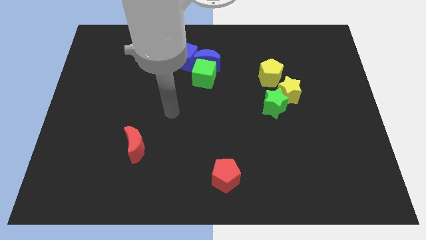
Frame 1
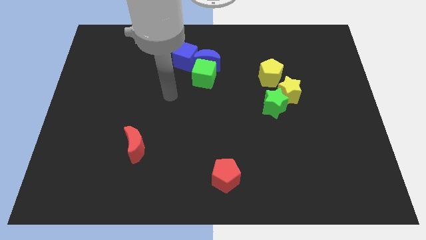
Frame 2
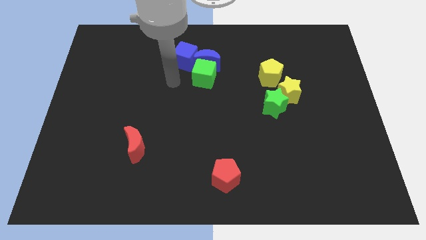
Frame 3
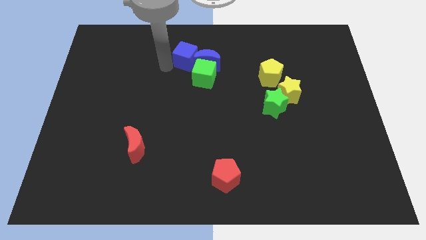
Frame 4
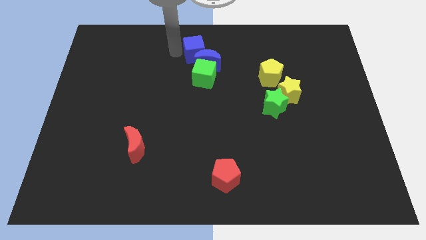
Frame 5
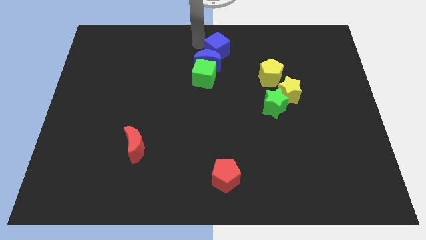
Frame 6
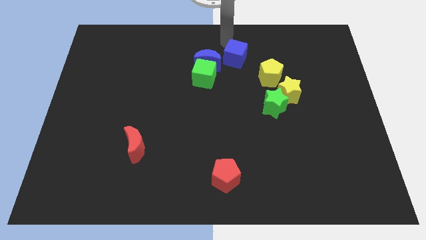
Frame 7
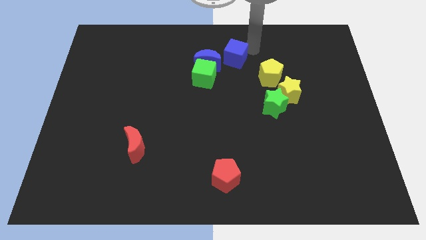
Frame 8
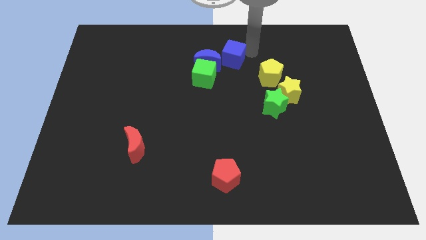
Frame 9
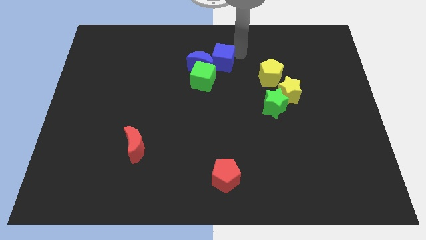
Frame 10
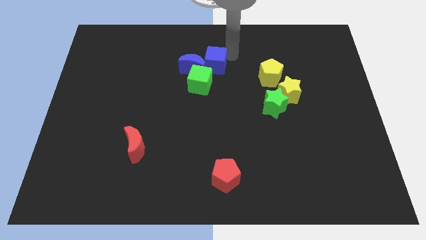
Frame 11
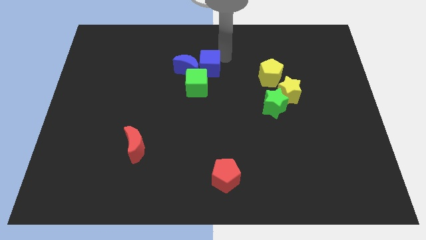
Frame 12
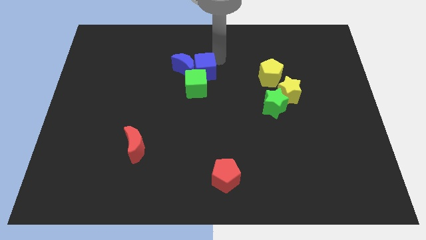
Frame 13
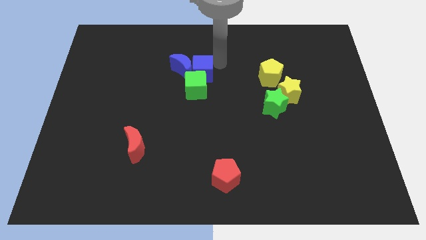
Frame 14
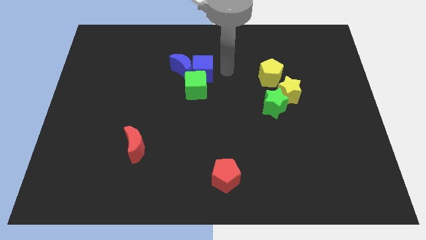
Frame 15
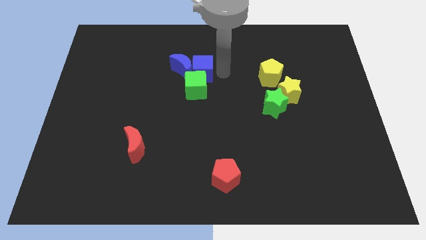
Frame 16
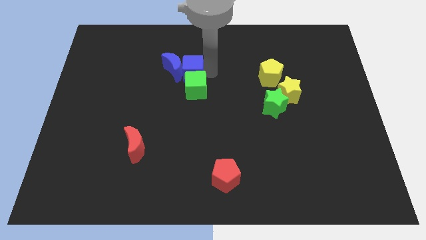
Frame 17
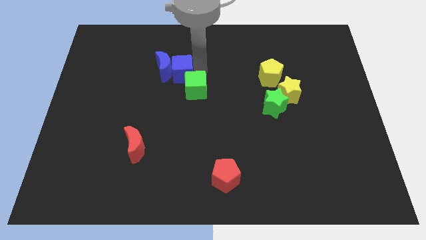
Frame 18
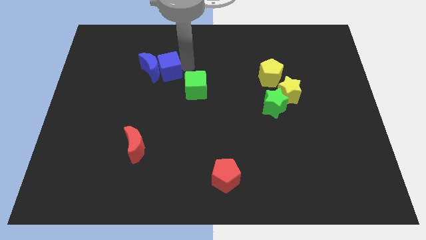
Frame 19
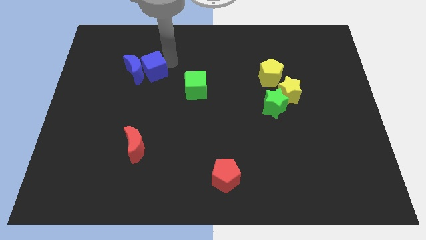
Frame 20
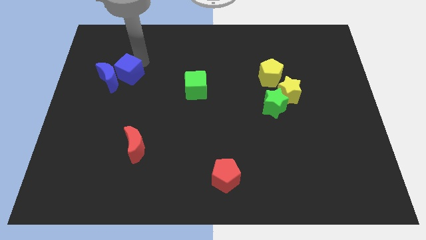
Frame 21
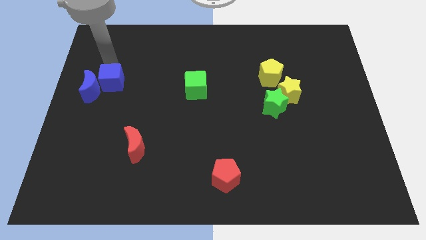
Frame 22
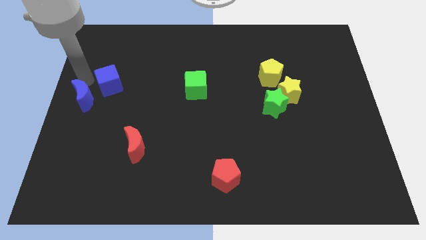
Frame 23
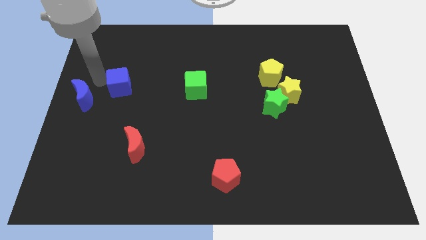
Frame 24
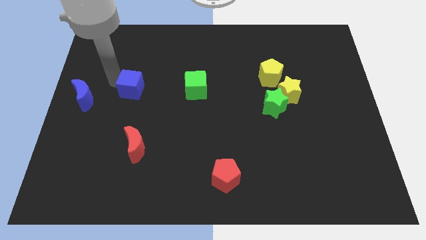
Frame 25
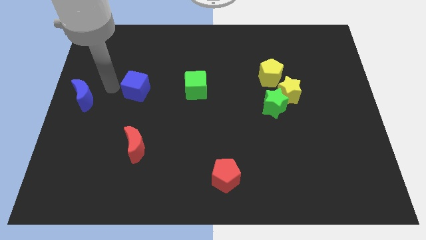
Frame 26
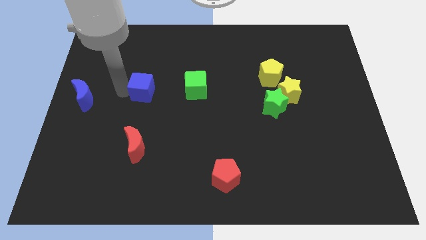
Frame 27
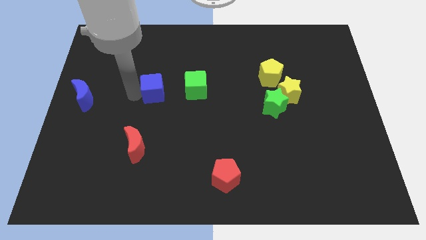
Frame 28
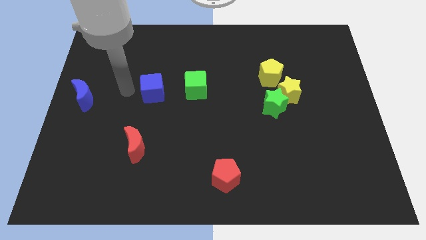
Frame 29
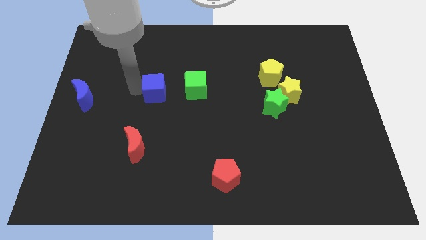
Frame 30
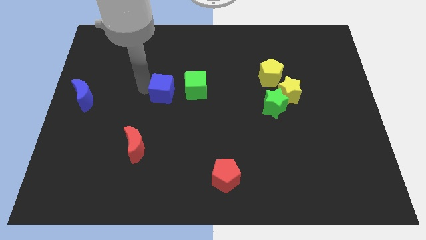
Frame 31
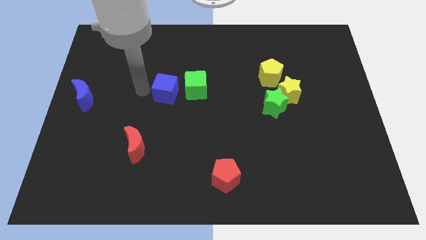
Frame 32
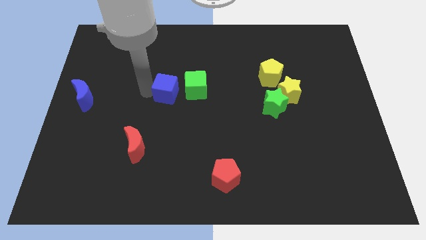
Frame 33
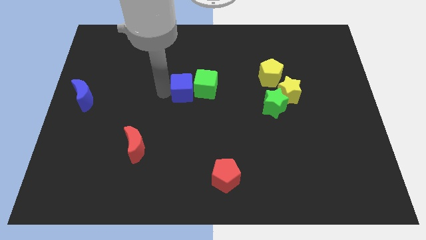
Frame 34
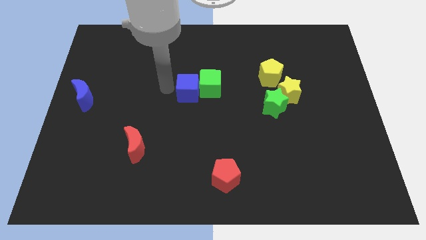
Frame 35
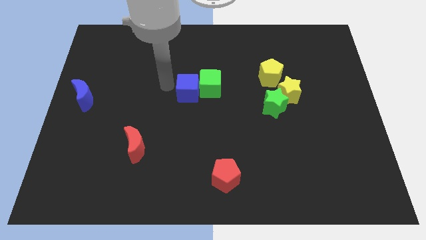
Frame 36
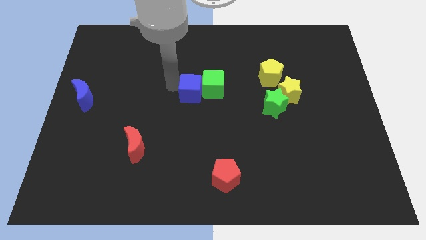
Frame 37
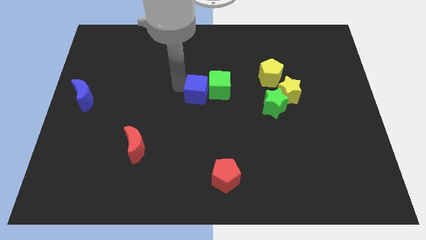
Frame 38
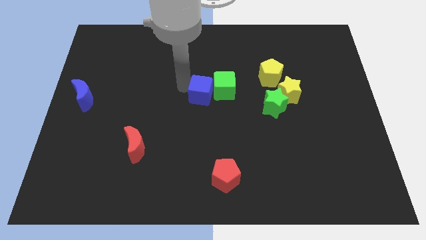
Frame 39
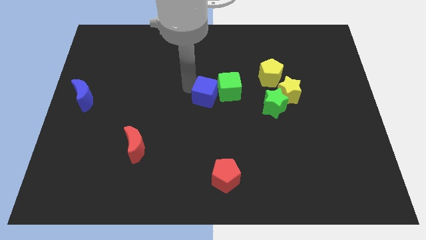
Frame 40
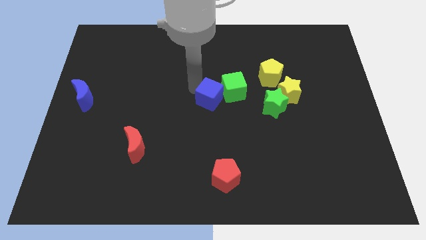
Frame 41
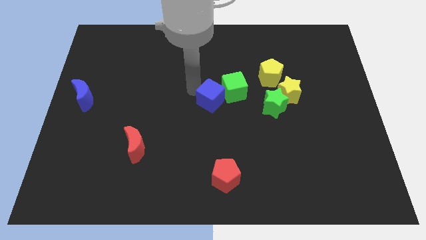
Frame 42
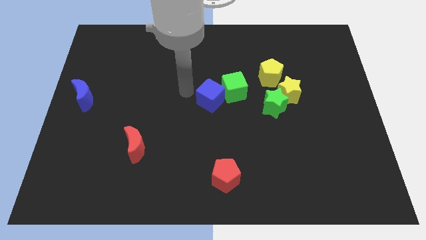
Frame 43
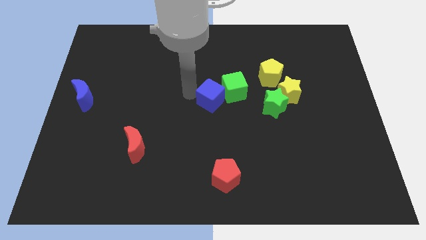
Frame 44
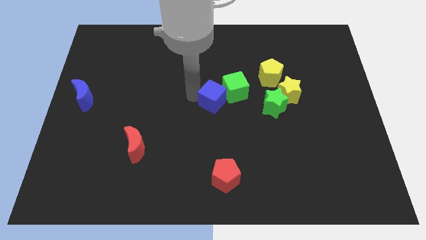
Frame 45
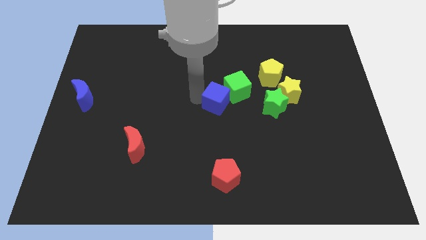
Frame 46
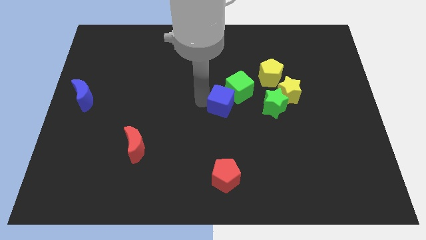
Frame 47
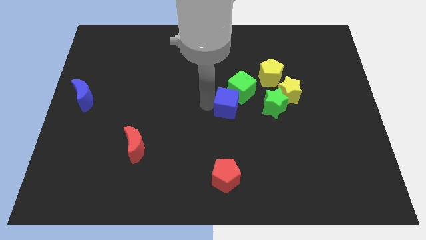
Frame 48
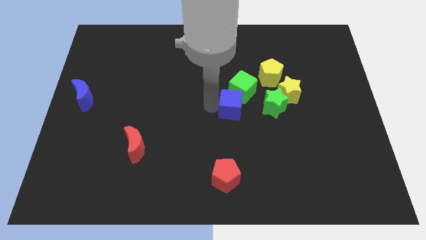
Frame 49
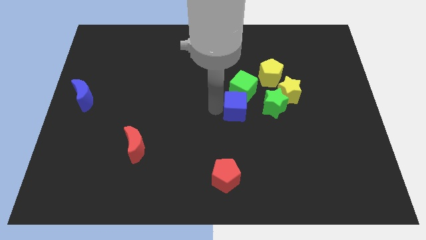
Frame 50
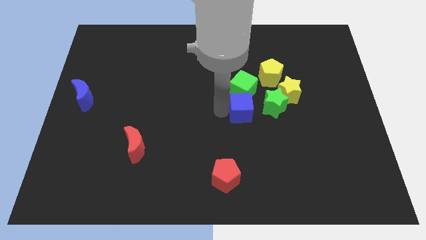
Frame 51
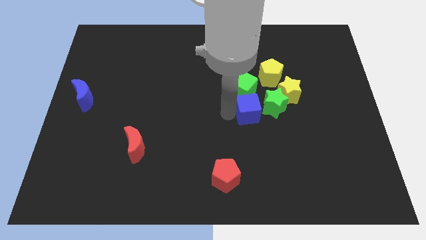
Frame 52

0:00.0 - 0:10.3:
slide the blue cube next to the green star

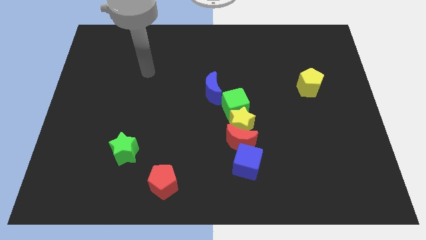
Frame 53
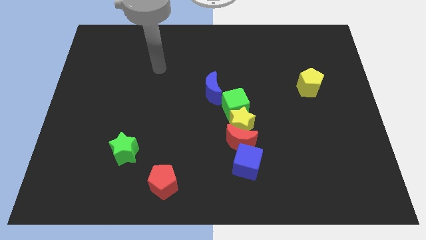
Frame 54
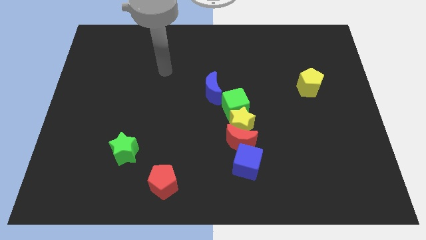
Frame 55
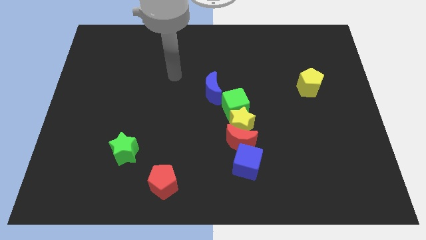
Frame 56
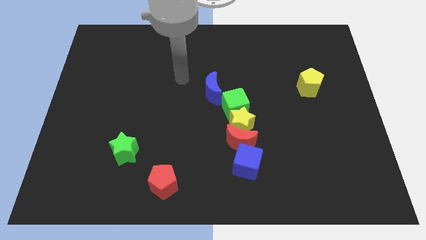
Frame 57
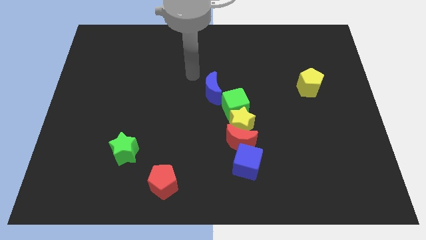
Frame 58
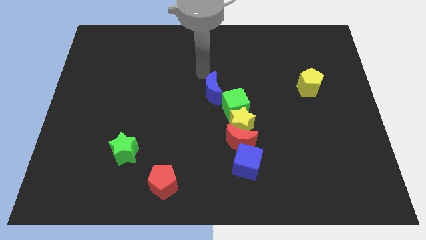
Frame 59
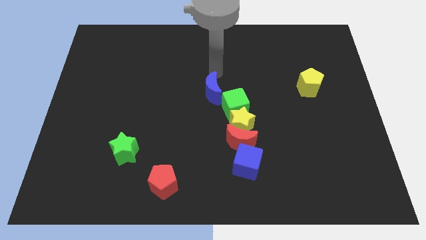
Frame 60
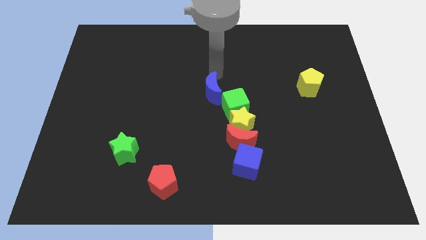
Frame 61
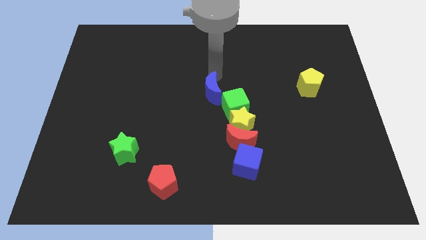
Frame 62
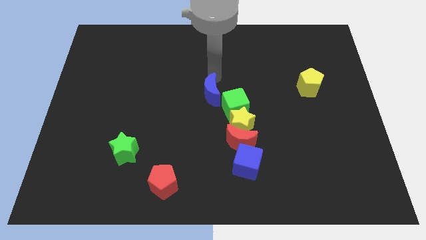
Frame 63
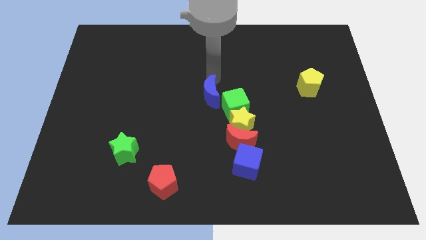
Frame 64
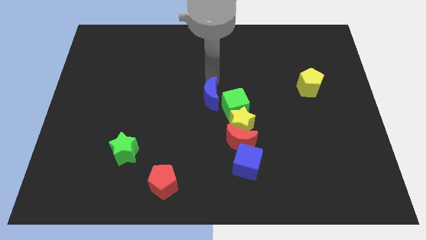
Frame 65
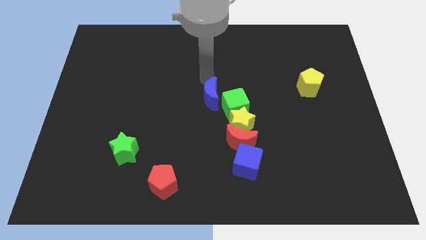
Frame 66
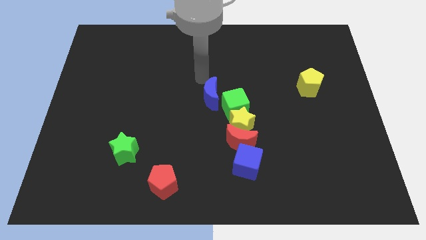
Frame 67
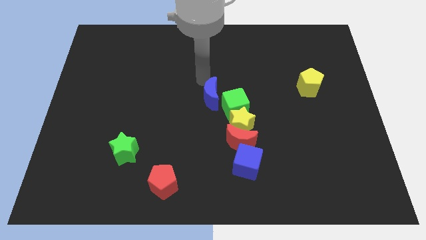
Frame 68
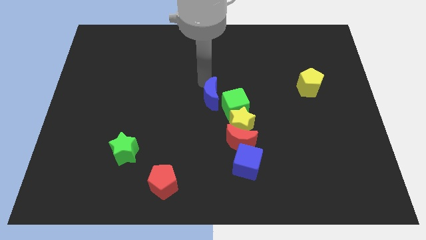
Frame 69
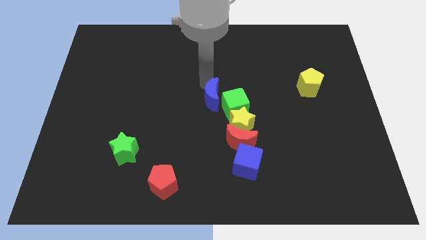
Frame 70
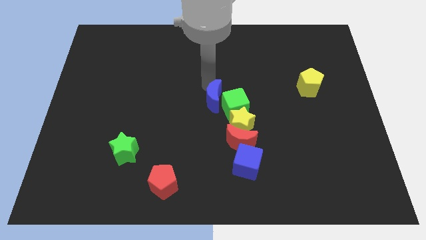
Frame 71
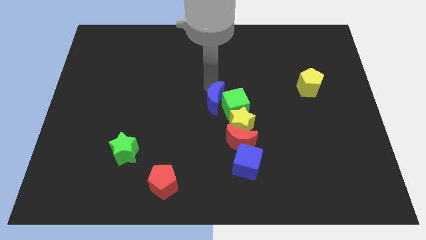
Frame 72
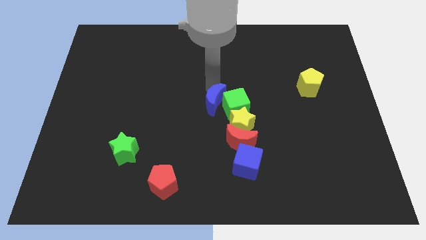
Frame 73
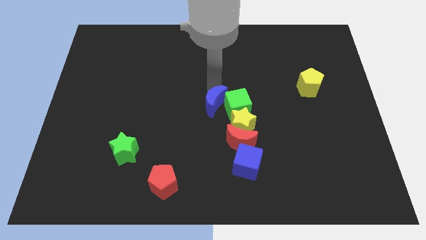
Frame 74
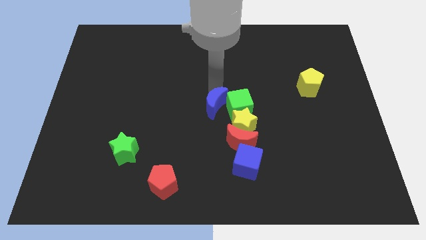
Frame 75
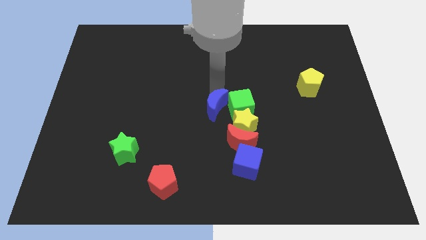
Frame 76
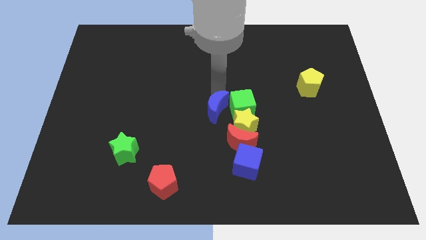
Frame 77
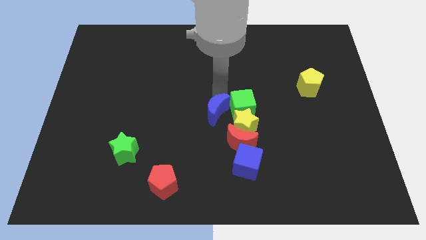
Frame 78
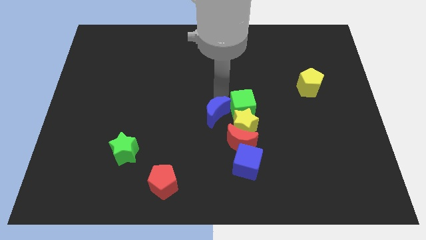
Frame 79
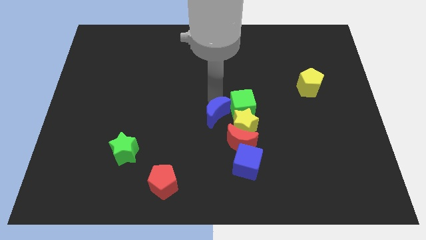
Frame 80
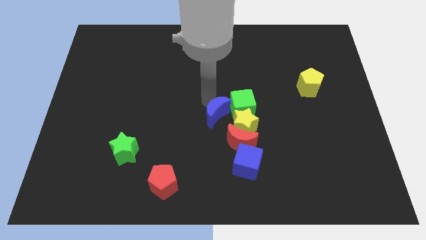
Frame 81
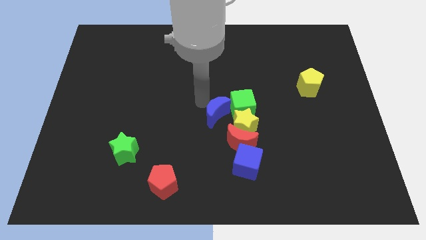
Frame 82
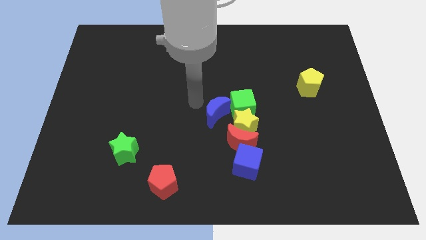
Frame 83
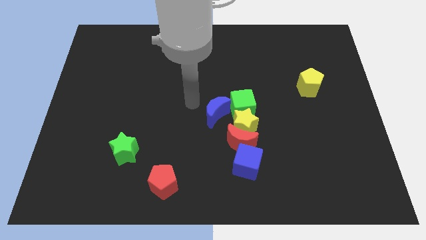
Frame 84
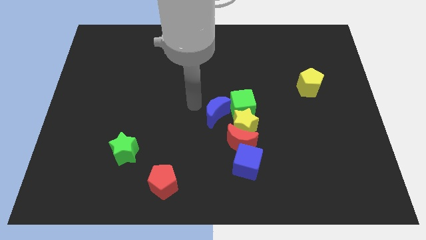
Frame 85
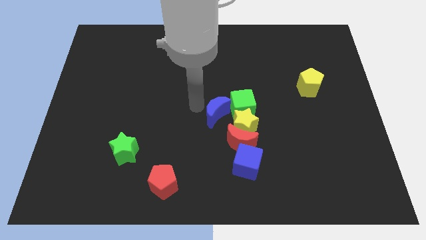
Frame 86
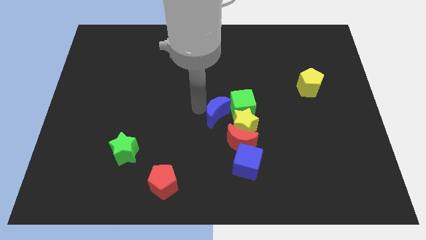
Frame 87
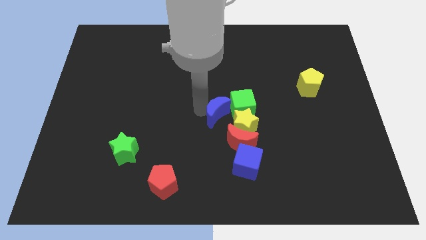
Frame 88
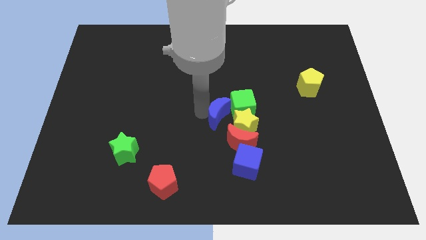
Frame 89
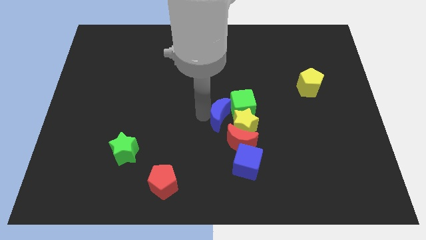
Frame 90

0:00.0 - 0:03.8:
slide the blue moon towards the yellow star
